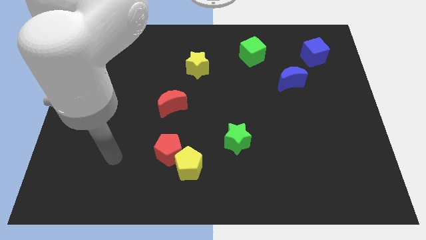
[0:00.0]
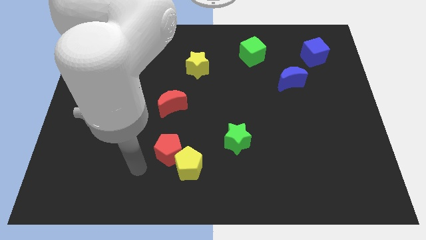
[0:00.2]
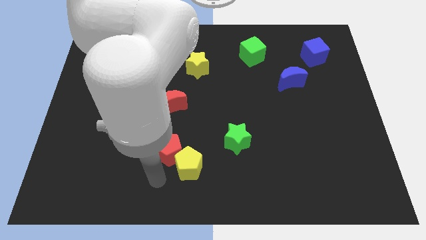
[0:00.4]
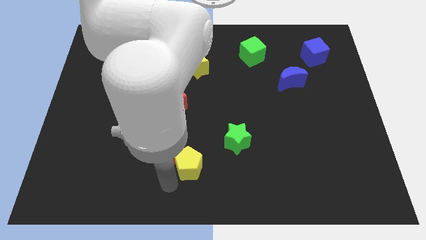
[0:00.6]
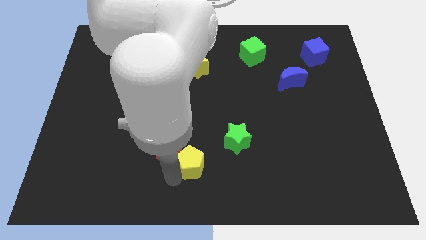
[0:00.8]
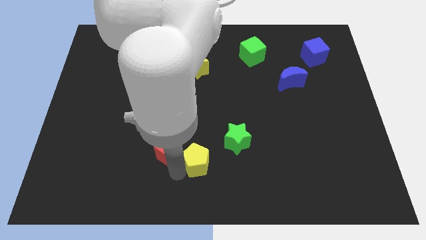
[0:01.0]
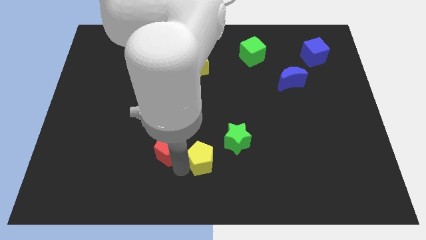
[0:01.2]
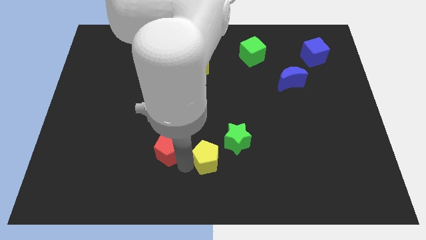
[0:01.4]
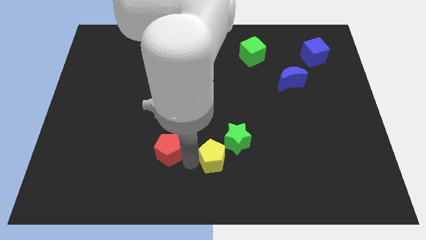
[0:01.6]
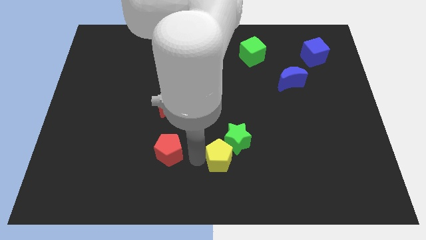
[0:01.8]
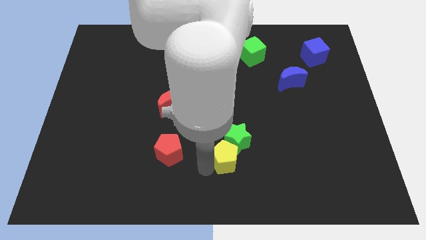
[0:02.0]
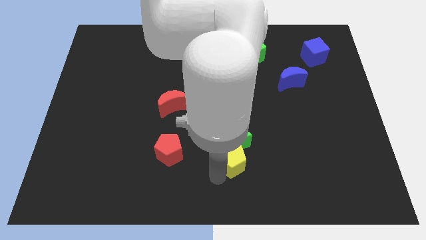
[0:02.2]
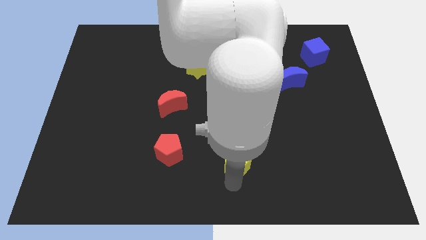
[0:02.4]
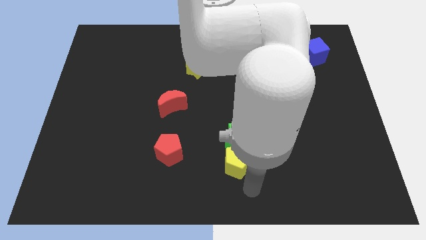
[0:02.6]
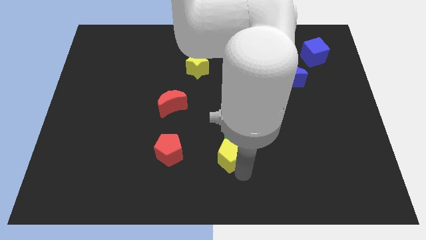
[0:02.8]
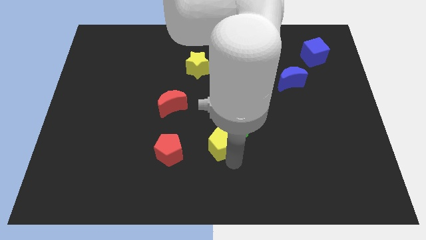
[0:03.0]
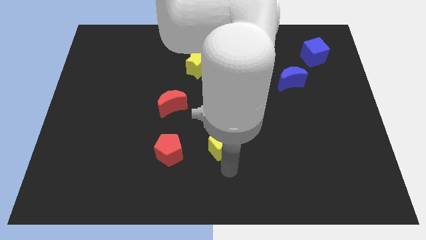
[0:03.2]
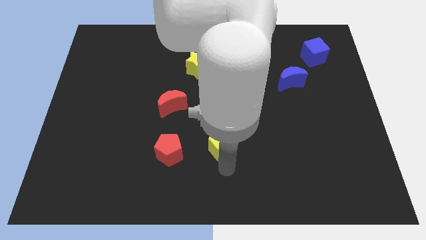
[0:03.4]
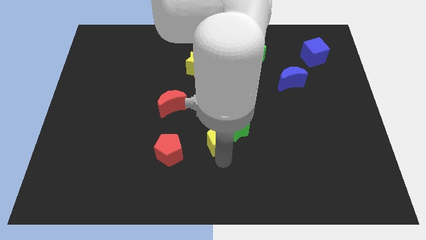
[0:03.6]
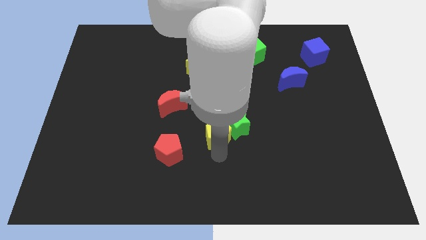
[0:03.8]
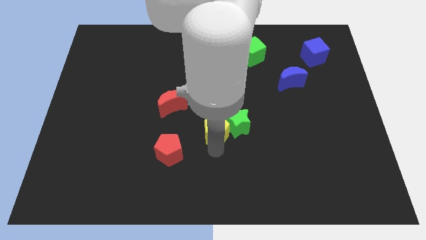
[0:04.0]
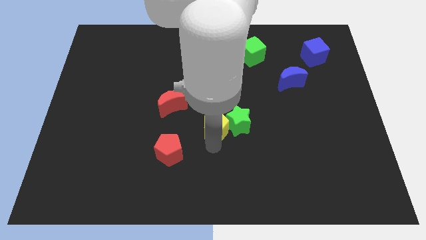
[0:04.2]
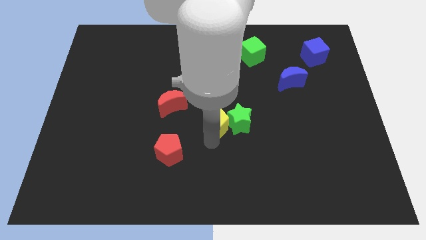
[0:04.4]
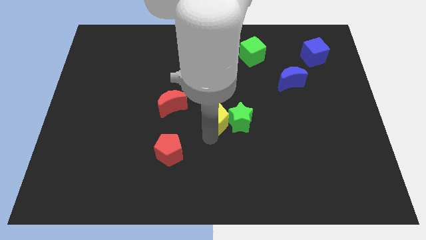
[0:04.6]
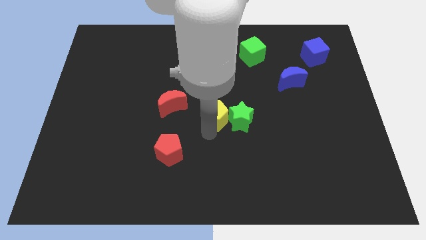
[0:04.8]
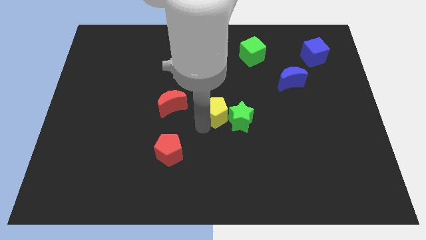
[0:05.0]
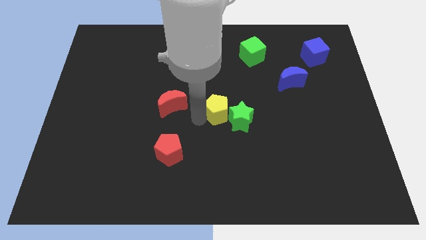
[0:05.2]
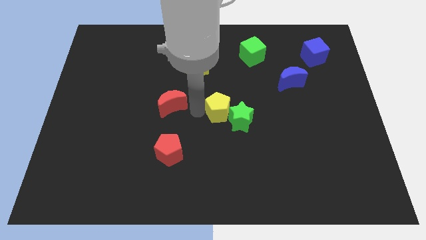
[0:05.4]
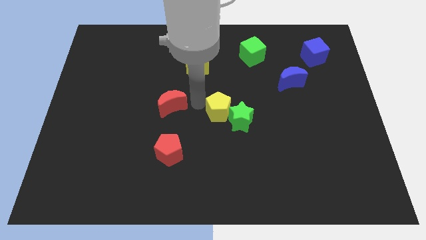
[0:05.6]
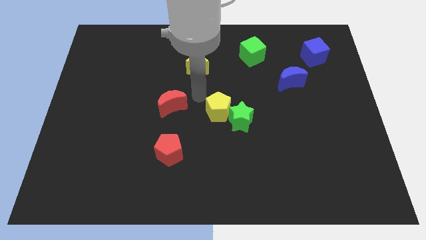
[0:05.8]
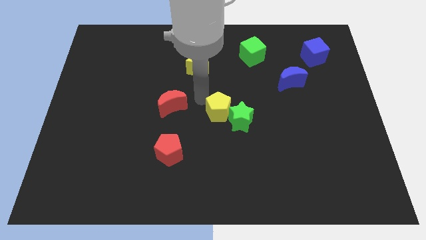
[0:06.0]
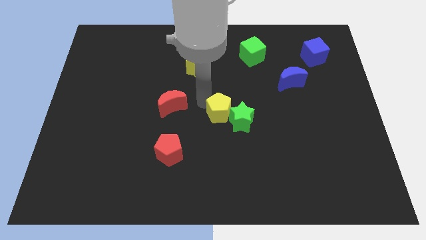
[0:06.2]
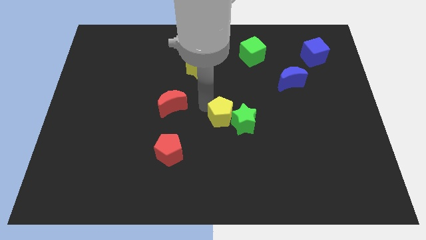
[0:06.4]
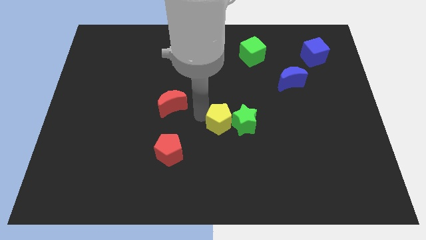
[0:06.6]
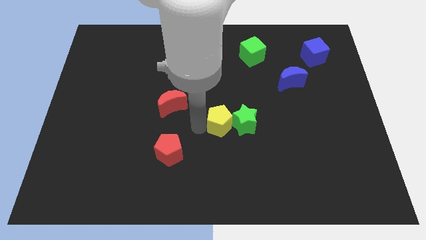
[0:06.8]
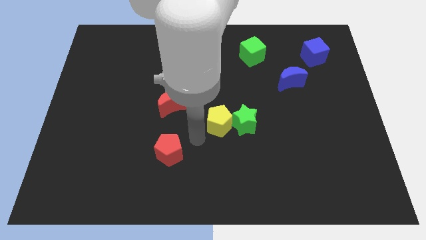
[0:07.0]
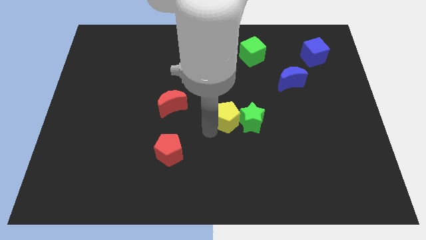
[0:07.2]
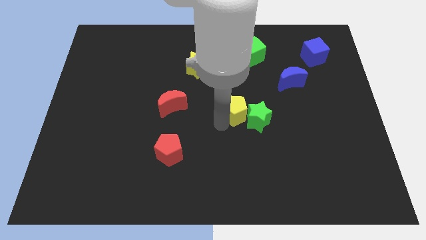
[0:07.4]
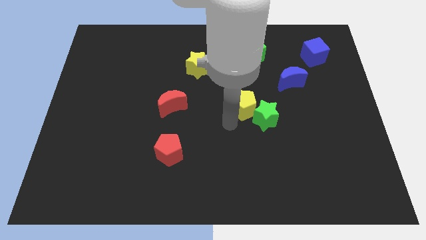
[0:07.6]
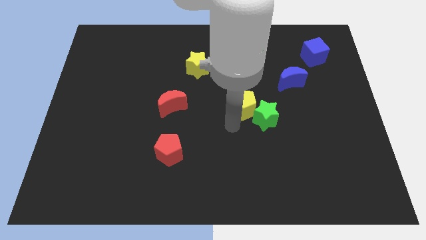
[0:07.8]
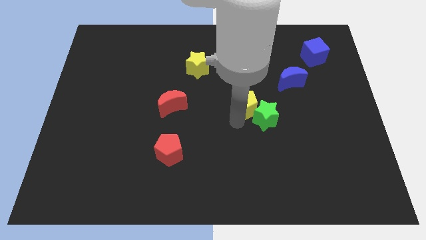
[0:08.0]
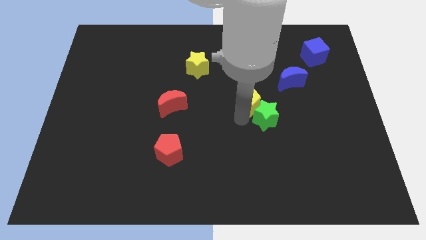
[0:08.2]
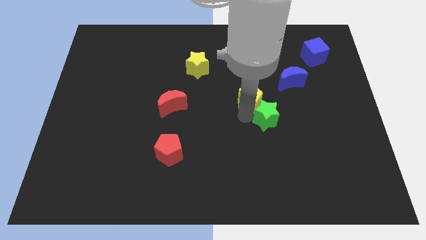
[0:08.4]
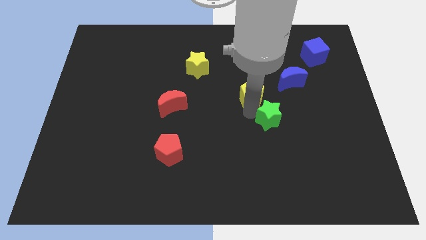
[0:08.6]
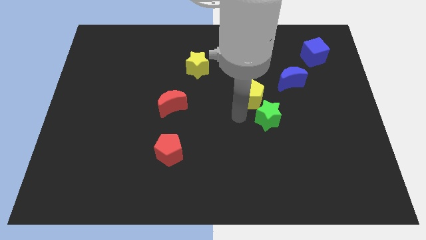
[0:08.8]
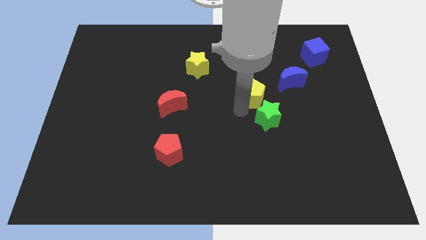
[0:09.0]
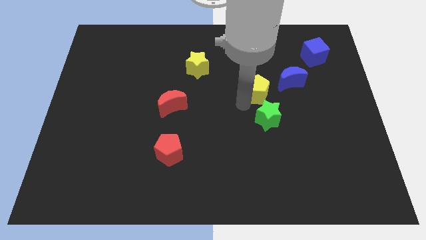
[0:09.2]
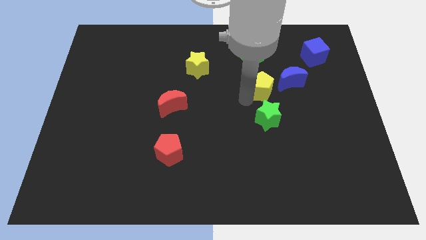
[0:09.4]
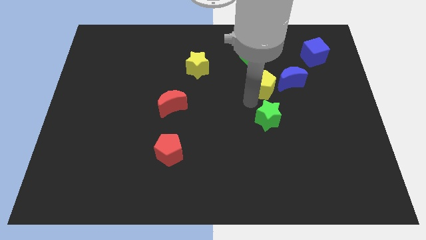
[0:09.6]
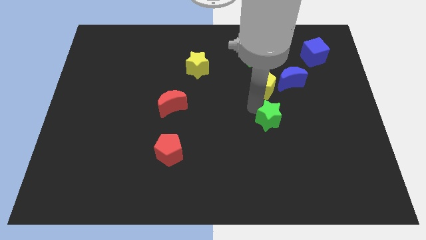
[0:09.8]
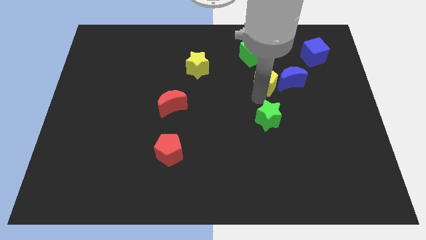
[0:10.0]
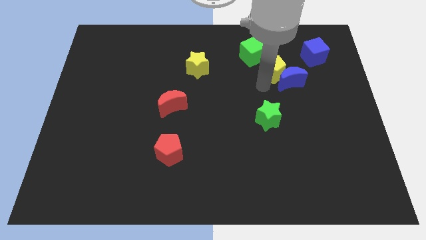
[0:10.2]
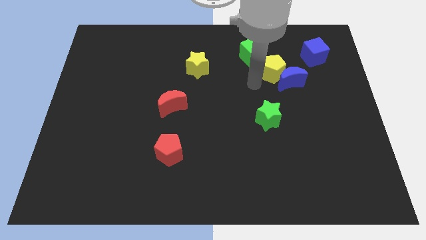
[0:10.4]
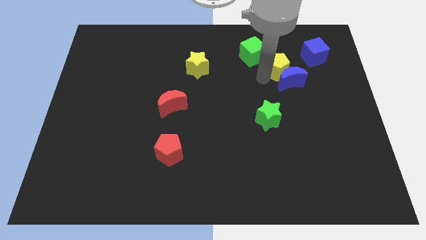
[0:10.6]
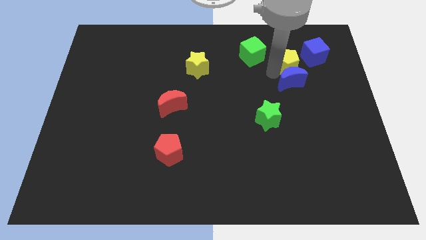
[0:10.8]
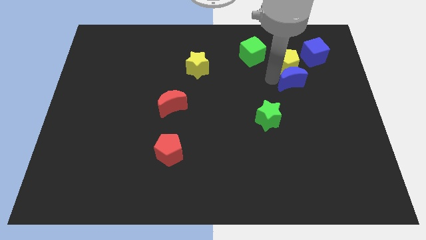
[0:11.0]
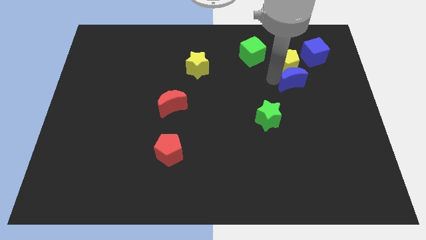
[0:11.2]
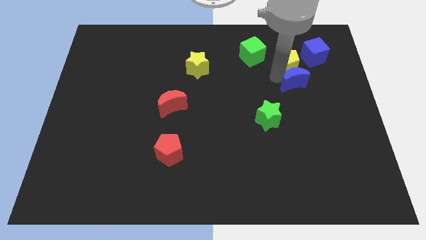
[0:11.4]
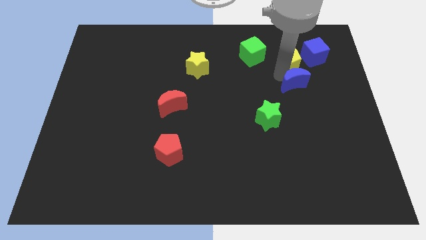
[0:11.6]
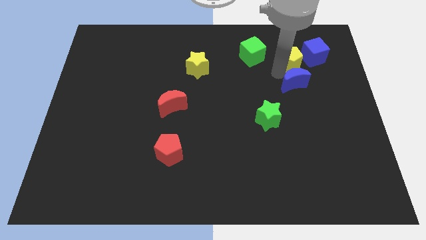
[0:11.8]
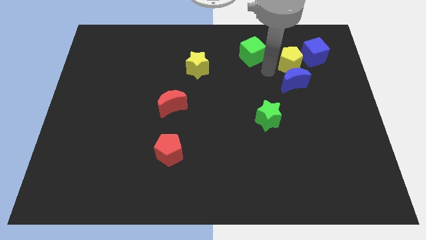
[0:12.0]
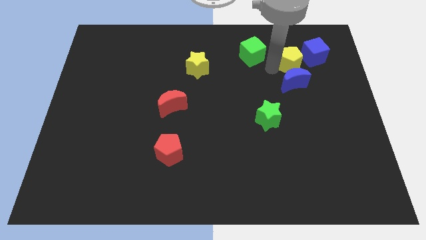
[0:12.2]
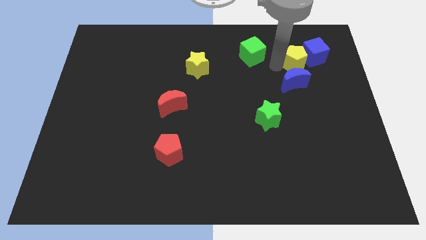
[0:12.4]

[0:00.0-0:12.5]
slide the yellow pentagon close to the blue cube
